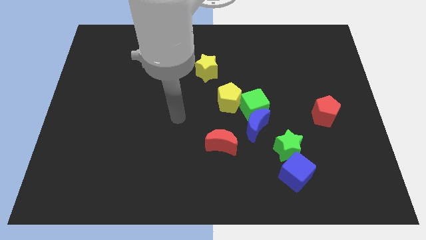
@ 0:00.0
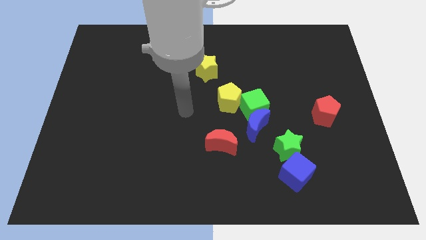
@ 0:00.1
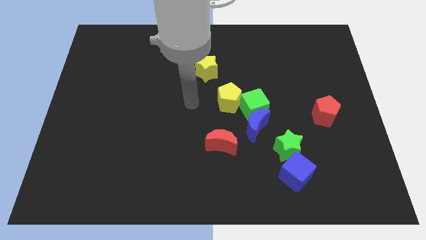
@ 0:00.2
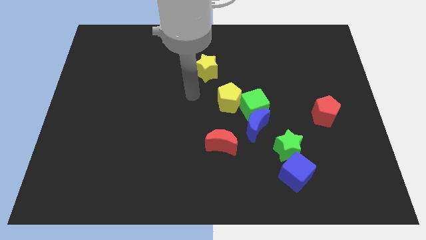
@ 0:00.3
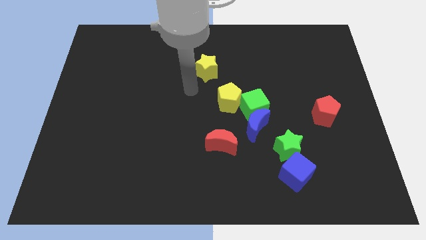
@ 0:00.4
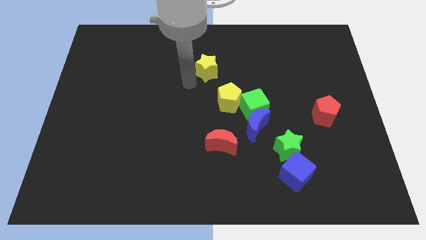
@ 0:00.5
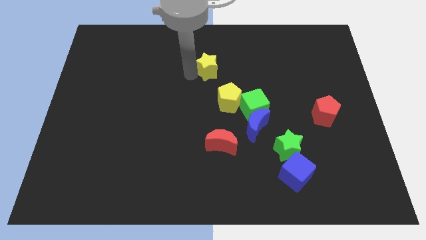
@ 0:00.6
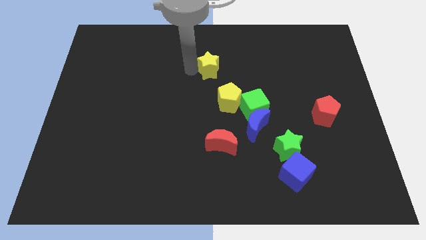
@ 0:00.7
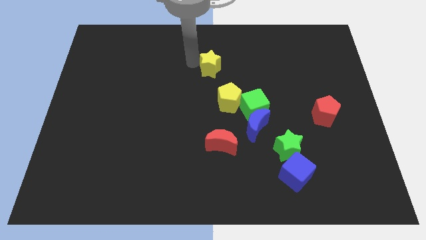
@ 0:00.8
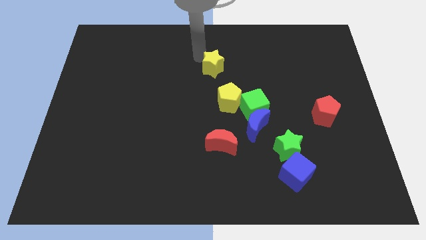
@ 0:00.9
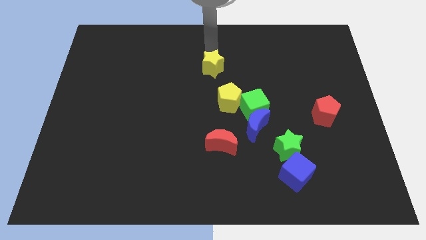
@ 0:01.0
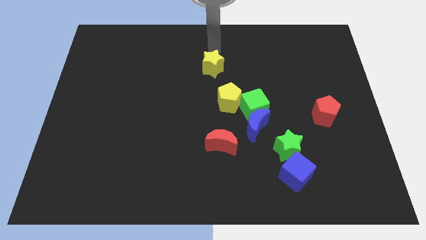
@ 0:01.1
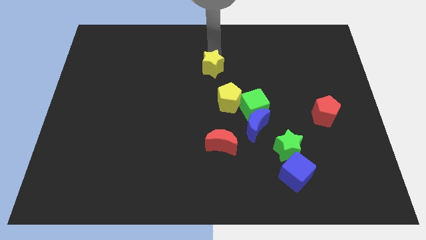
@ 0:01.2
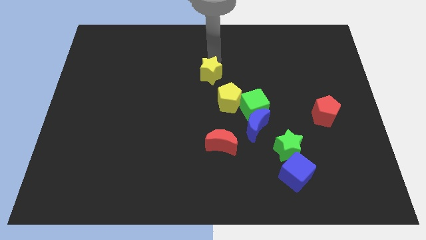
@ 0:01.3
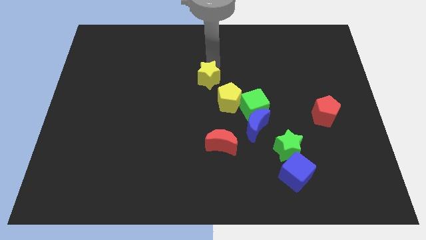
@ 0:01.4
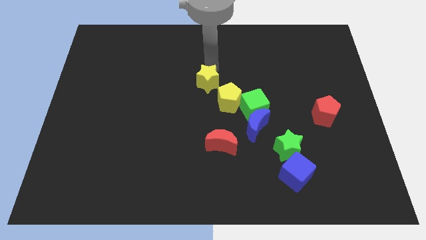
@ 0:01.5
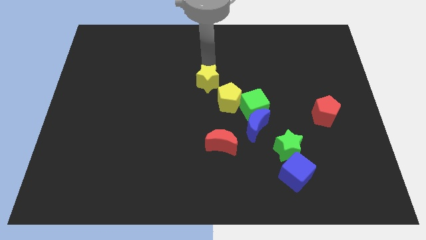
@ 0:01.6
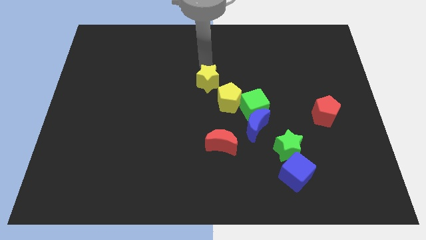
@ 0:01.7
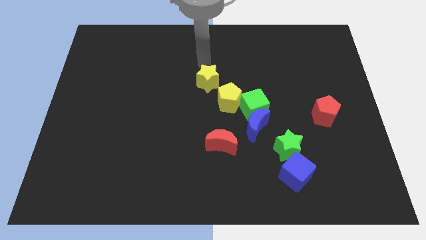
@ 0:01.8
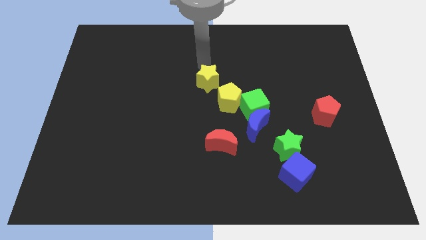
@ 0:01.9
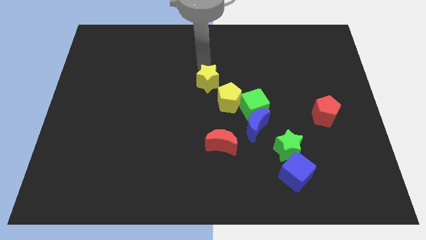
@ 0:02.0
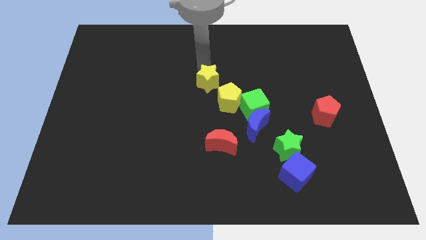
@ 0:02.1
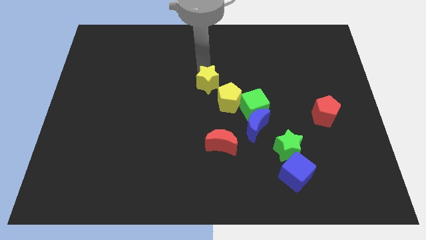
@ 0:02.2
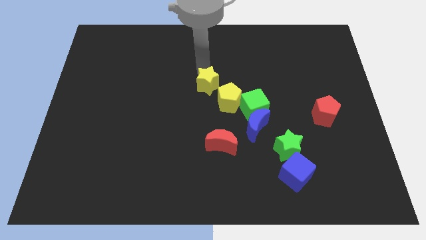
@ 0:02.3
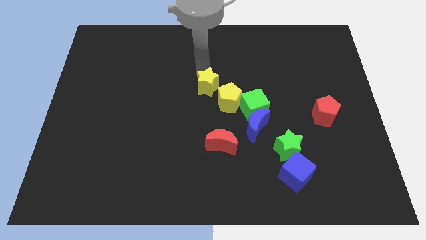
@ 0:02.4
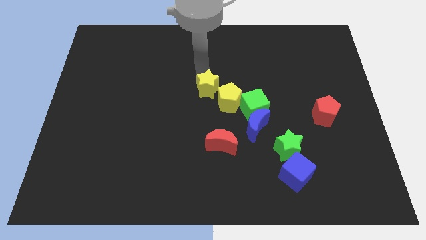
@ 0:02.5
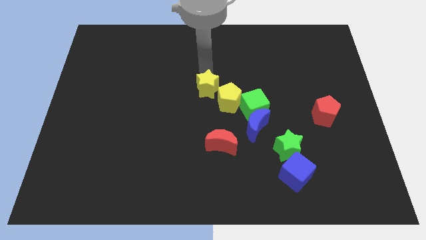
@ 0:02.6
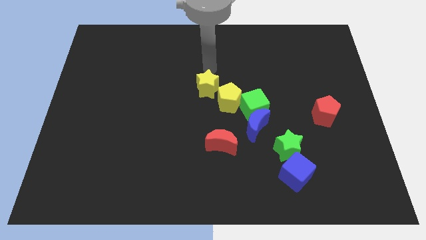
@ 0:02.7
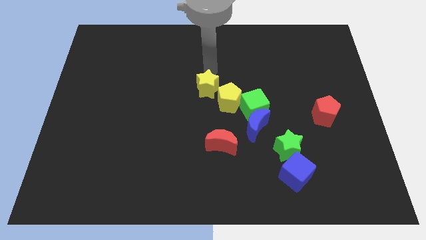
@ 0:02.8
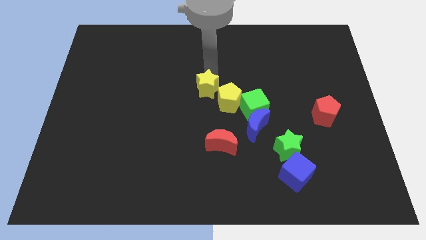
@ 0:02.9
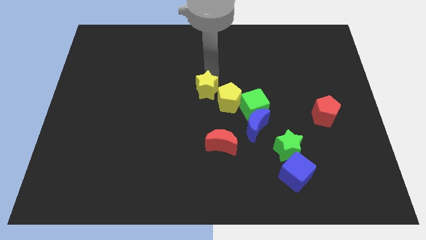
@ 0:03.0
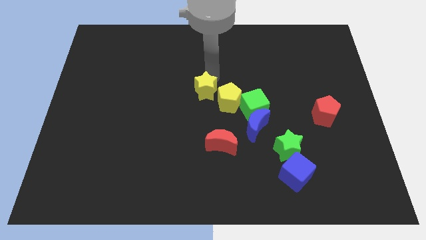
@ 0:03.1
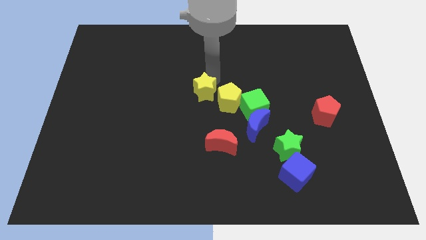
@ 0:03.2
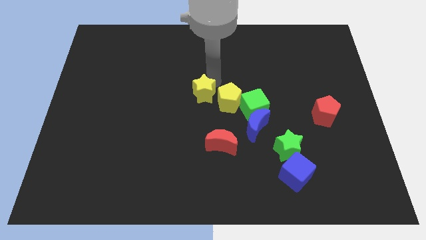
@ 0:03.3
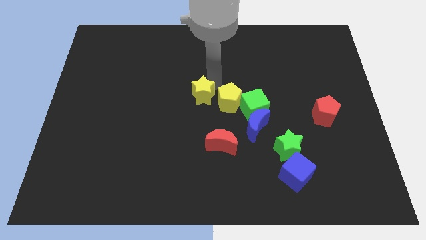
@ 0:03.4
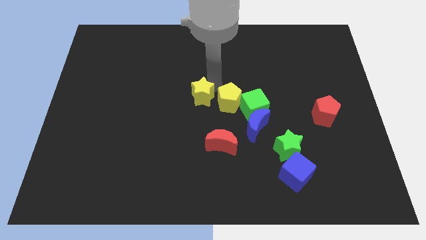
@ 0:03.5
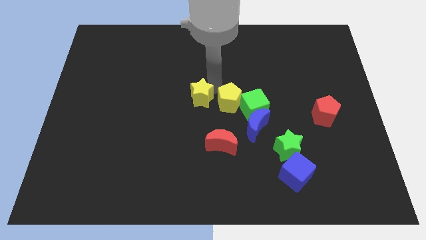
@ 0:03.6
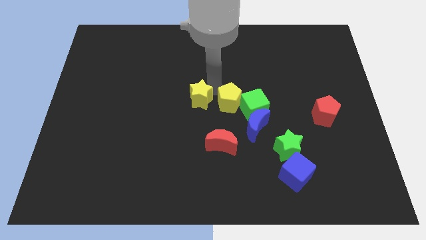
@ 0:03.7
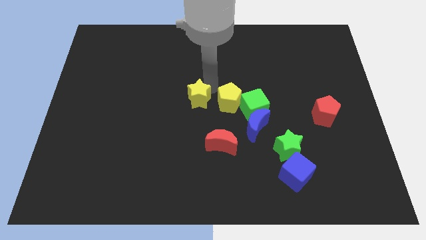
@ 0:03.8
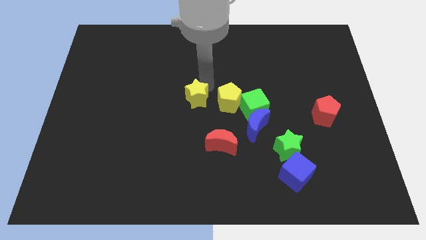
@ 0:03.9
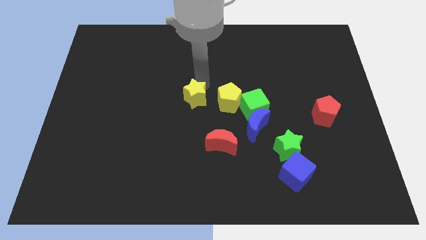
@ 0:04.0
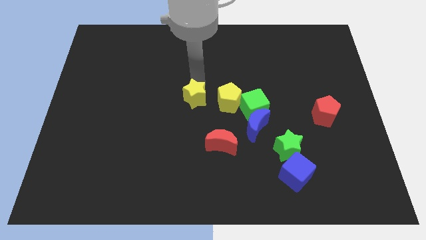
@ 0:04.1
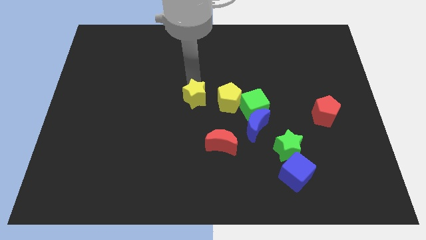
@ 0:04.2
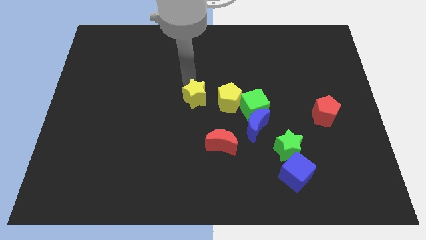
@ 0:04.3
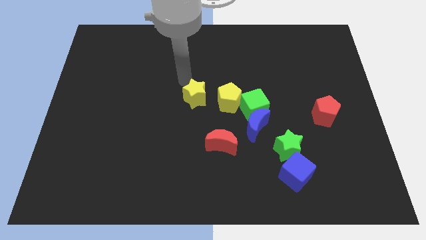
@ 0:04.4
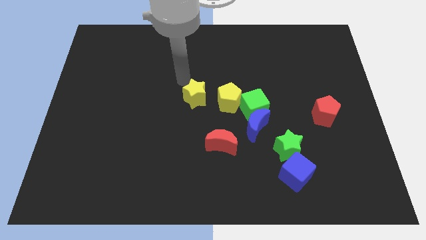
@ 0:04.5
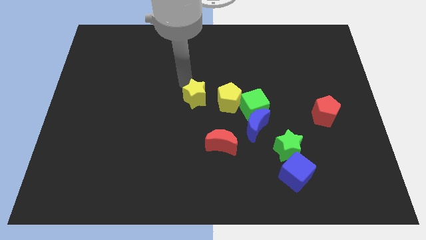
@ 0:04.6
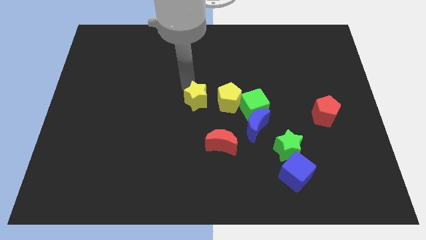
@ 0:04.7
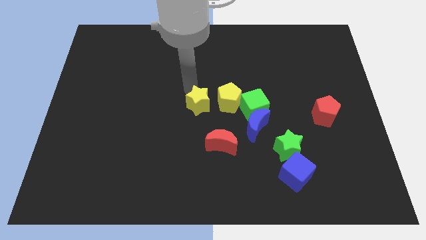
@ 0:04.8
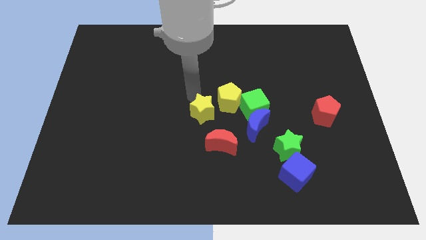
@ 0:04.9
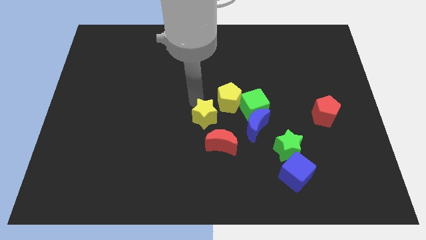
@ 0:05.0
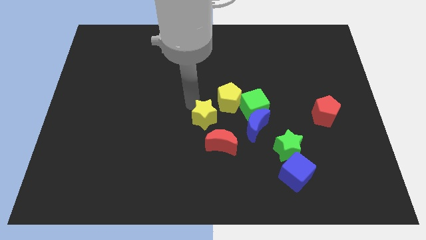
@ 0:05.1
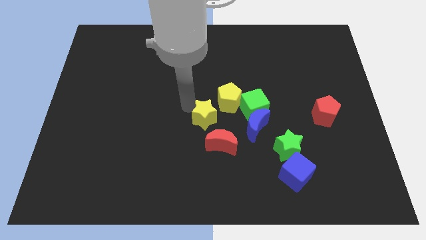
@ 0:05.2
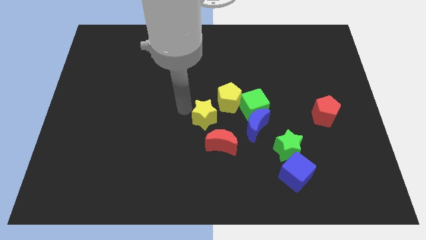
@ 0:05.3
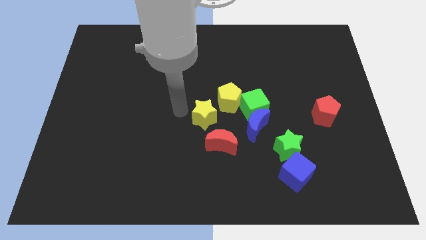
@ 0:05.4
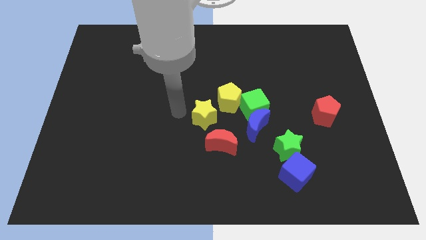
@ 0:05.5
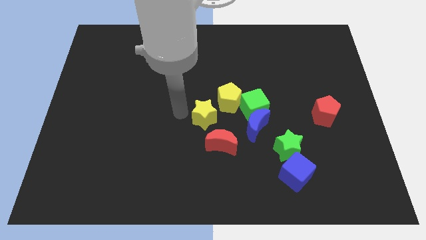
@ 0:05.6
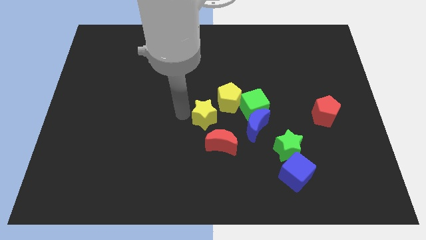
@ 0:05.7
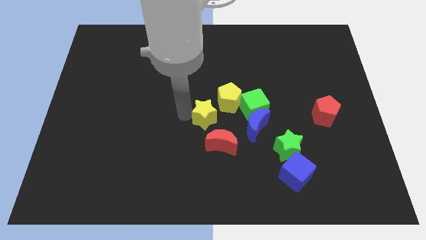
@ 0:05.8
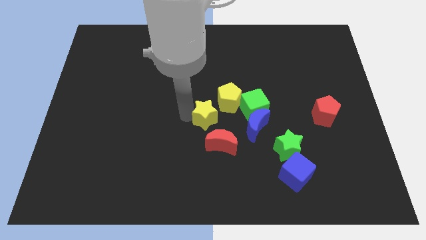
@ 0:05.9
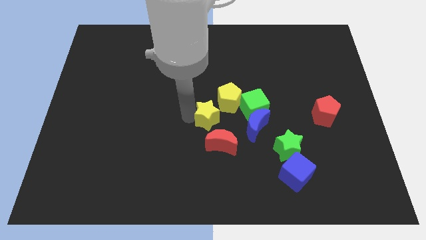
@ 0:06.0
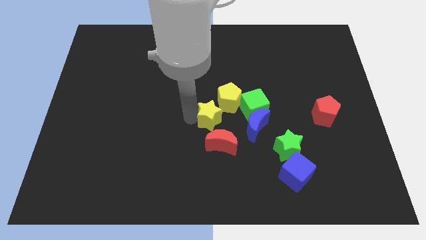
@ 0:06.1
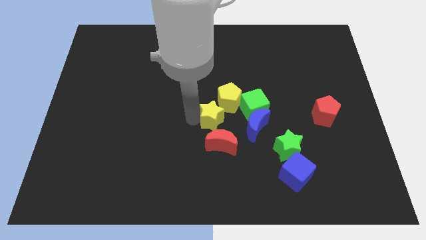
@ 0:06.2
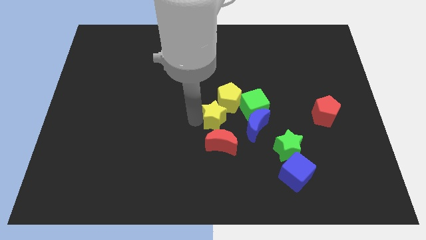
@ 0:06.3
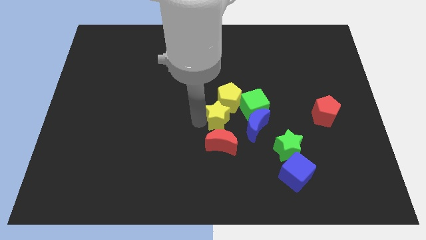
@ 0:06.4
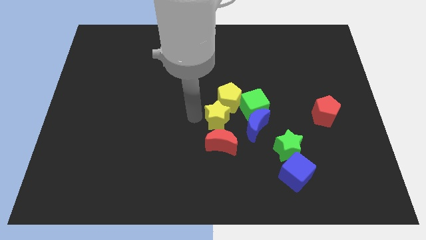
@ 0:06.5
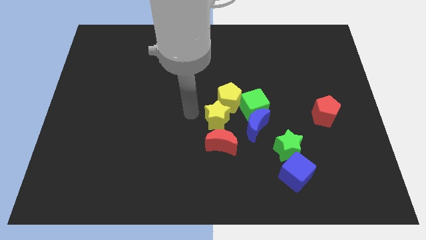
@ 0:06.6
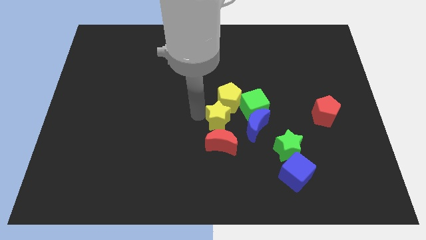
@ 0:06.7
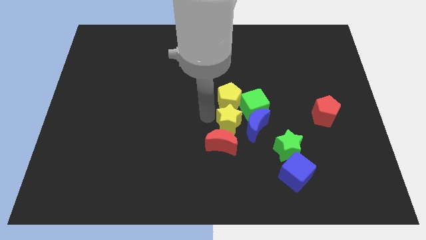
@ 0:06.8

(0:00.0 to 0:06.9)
move the yellow star to the blue moon

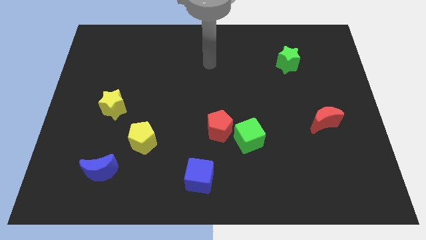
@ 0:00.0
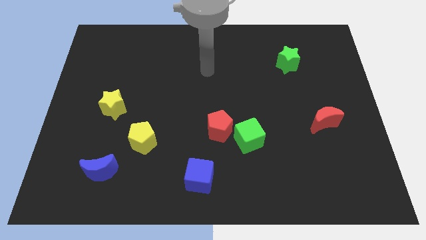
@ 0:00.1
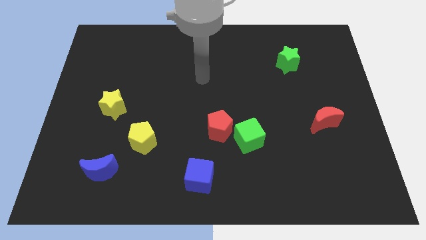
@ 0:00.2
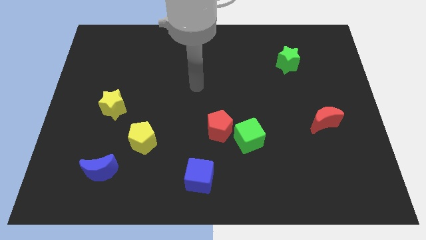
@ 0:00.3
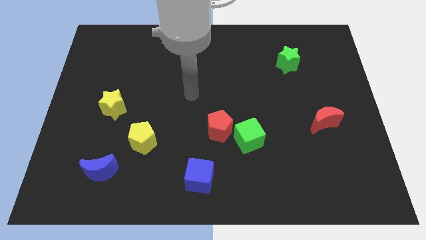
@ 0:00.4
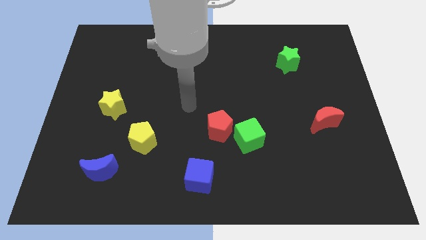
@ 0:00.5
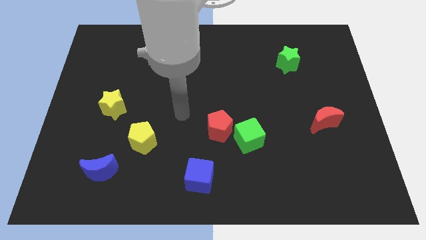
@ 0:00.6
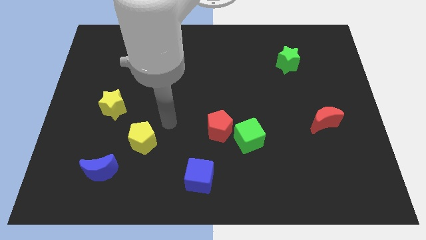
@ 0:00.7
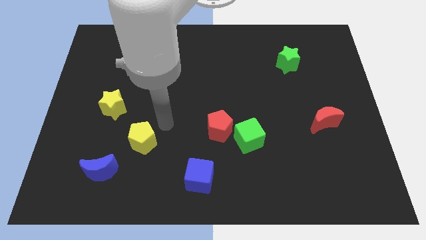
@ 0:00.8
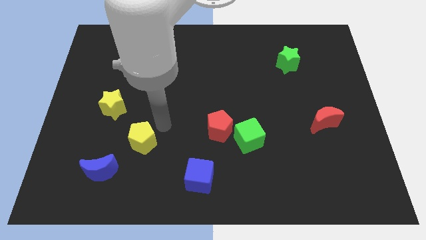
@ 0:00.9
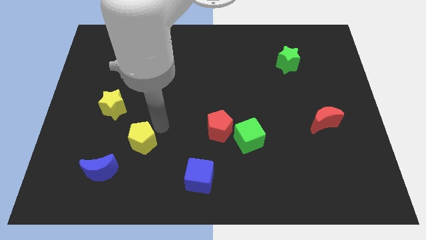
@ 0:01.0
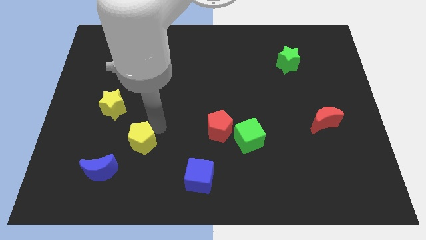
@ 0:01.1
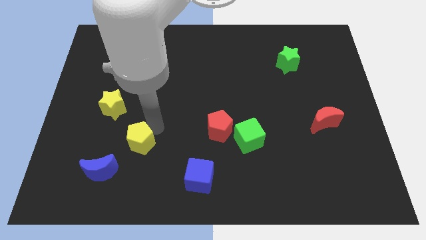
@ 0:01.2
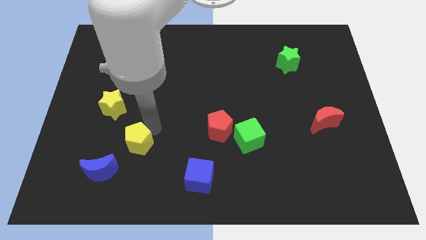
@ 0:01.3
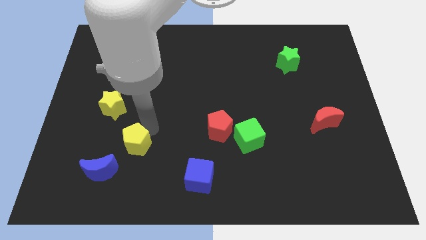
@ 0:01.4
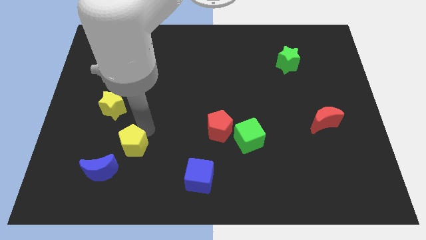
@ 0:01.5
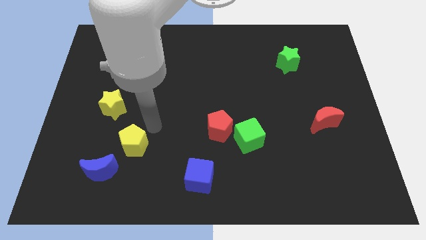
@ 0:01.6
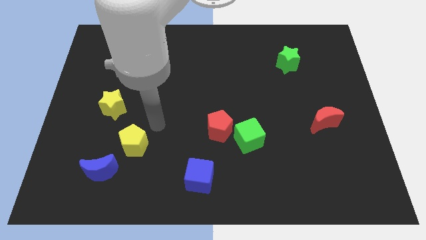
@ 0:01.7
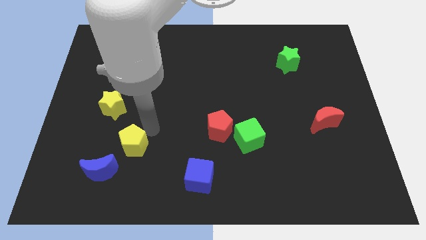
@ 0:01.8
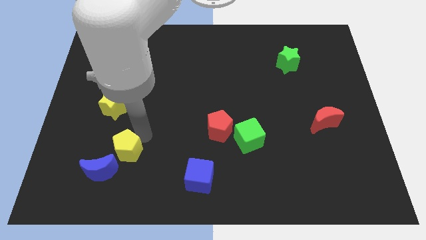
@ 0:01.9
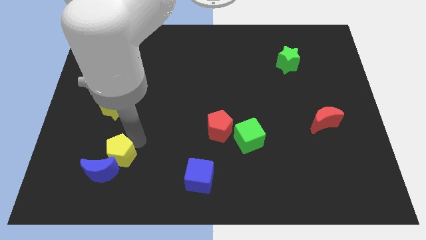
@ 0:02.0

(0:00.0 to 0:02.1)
slide the yellow pentagon close to the blue moon
